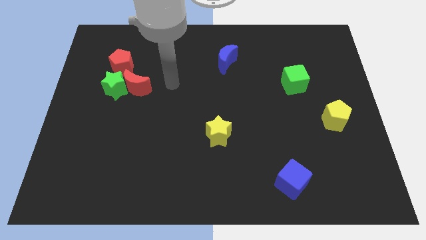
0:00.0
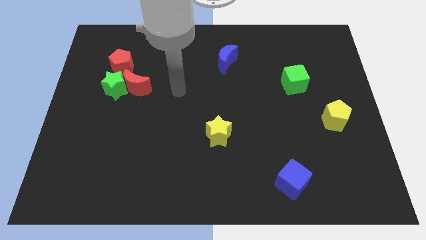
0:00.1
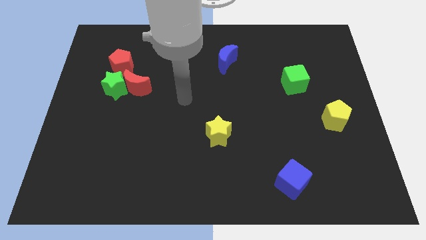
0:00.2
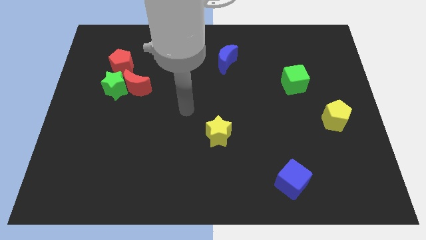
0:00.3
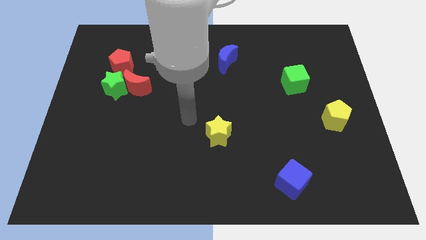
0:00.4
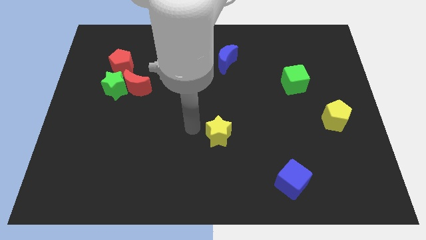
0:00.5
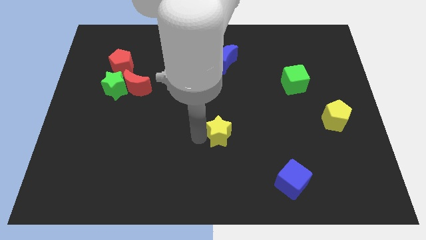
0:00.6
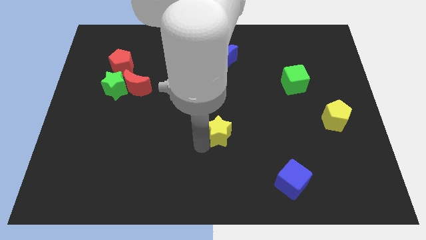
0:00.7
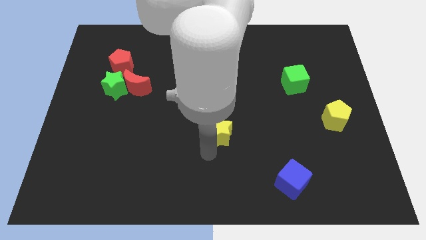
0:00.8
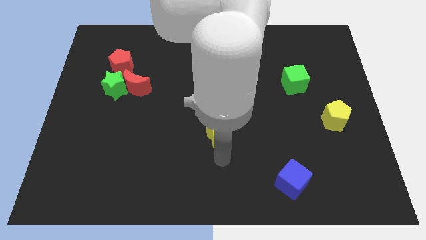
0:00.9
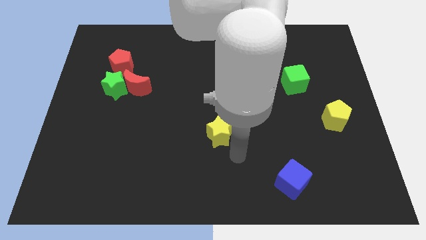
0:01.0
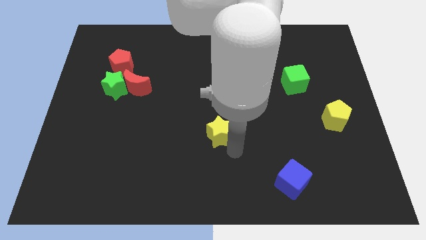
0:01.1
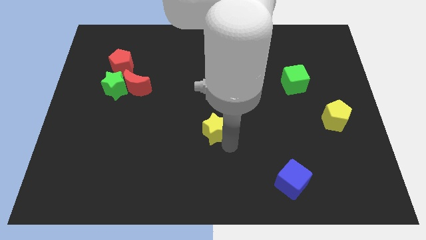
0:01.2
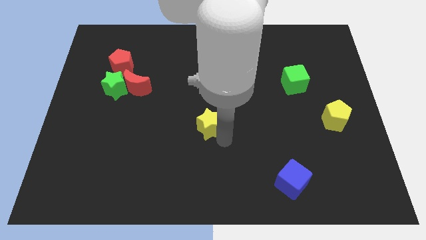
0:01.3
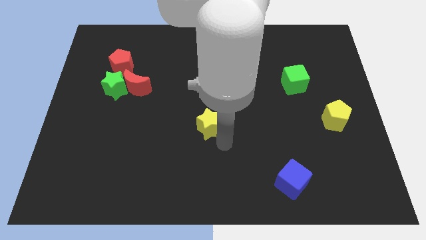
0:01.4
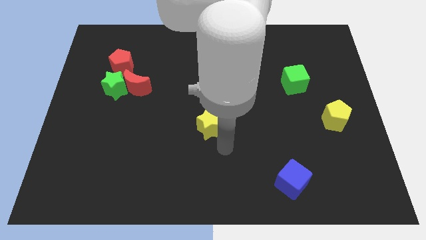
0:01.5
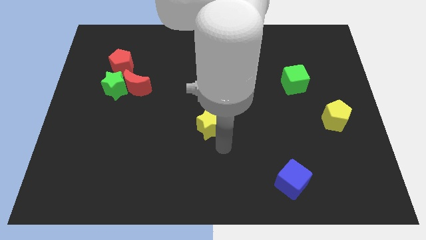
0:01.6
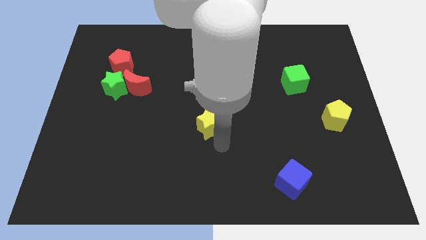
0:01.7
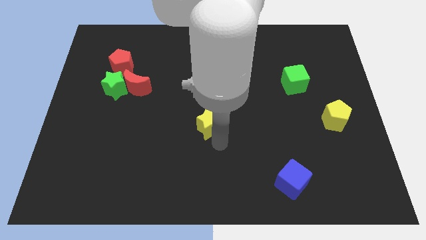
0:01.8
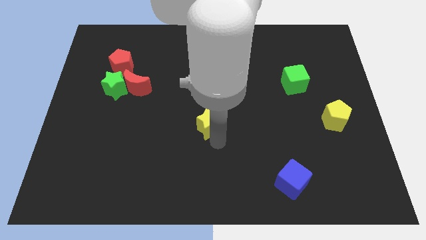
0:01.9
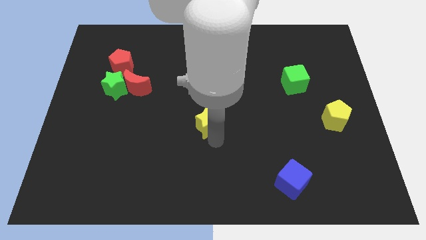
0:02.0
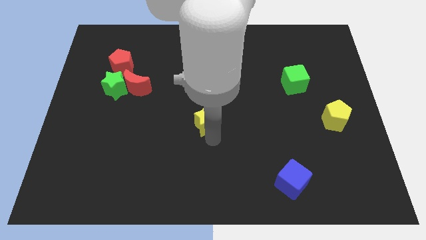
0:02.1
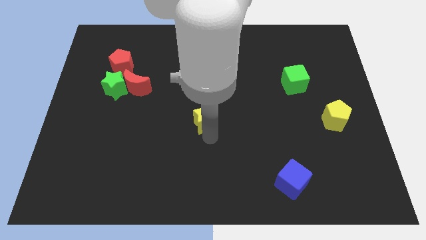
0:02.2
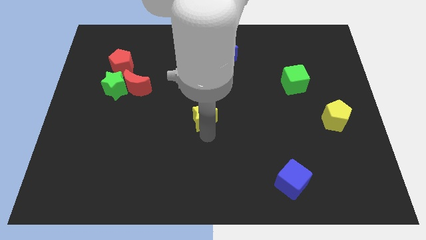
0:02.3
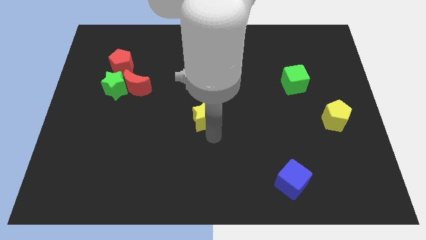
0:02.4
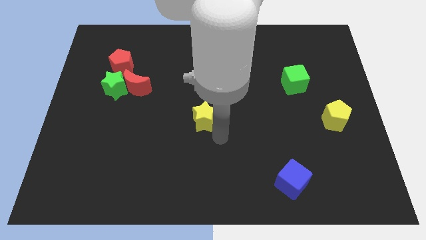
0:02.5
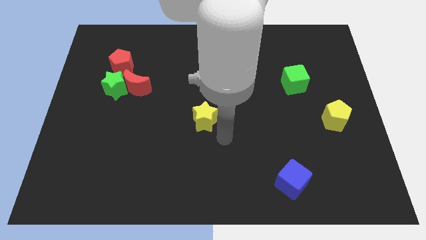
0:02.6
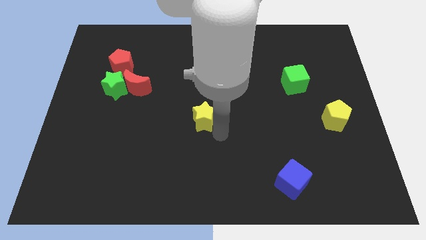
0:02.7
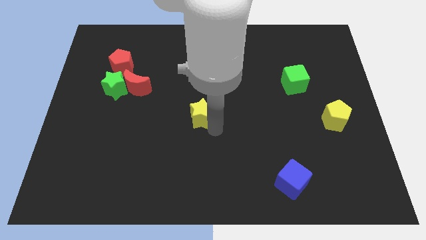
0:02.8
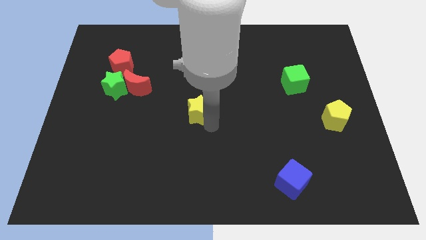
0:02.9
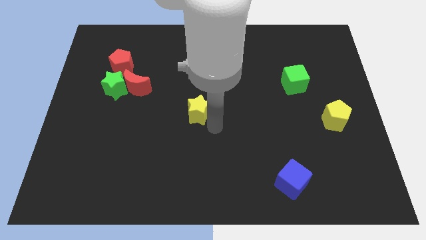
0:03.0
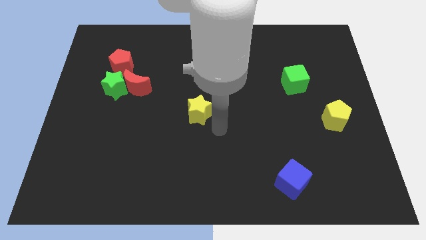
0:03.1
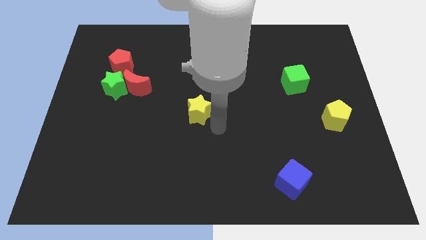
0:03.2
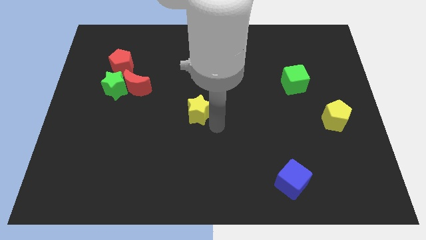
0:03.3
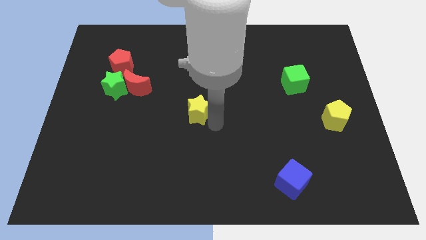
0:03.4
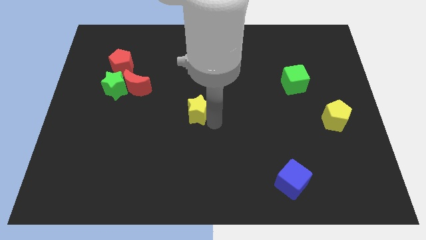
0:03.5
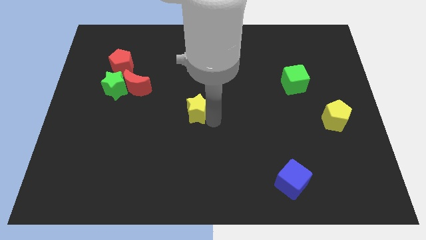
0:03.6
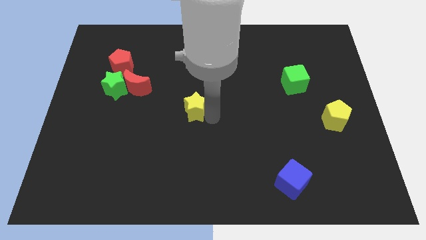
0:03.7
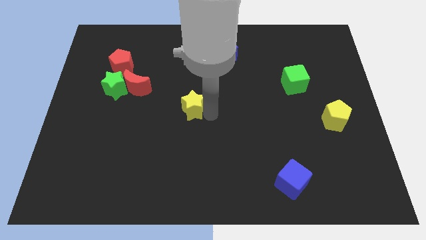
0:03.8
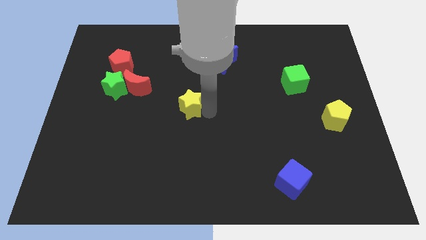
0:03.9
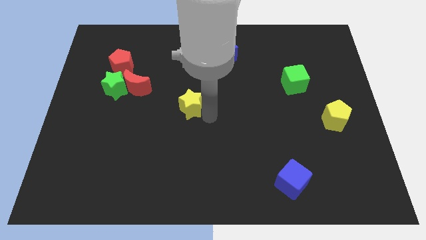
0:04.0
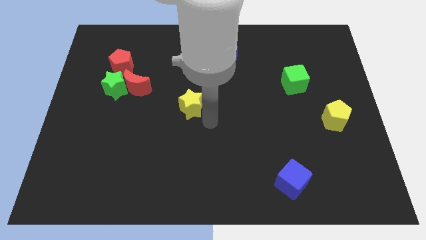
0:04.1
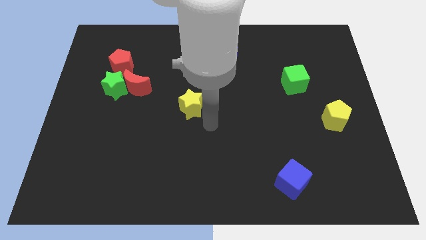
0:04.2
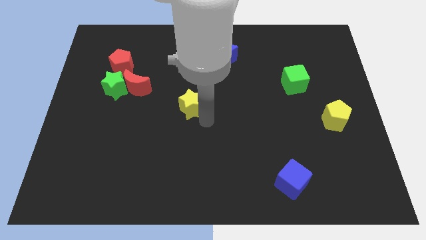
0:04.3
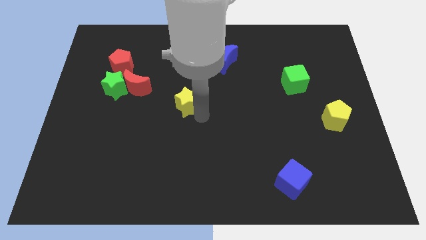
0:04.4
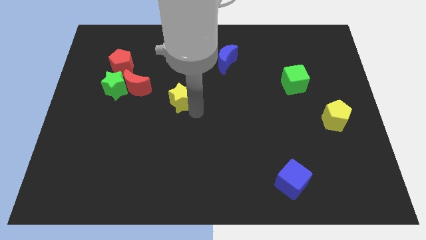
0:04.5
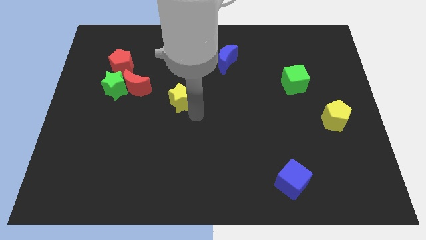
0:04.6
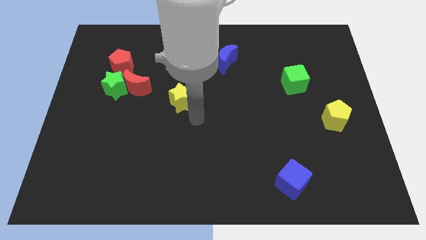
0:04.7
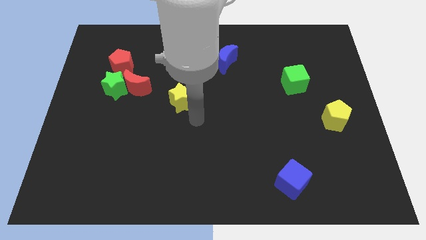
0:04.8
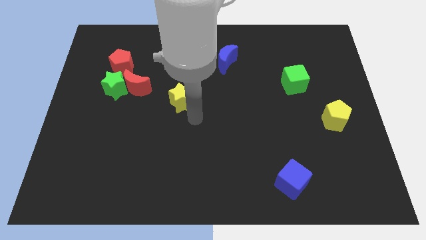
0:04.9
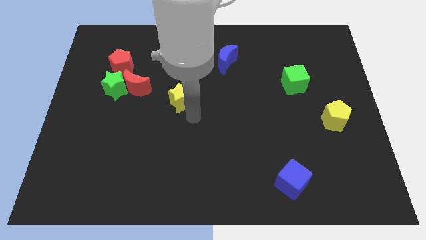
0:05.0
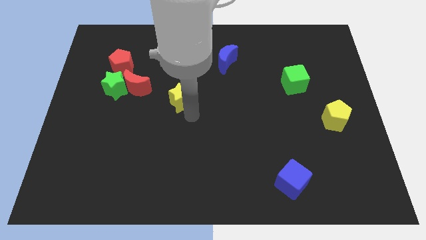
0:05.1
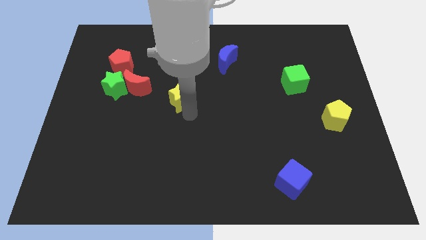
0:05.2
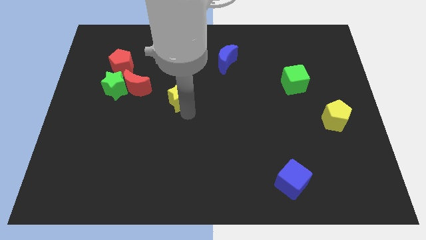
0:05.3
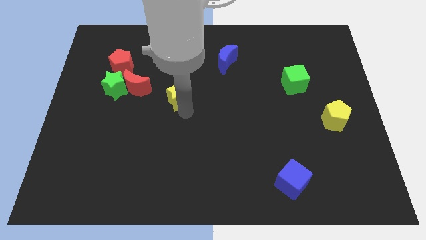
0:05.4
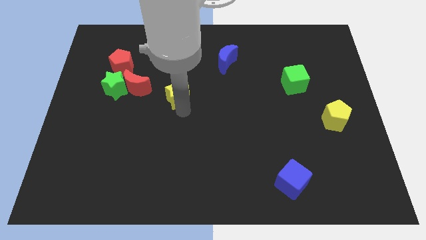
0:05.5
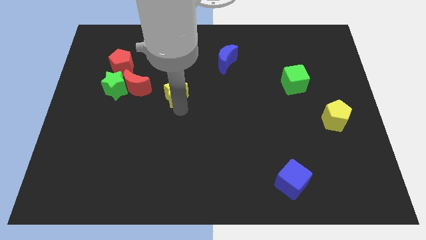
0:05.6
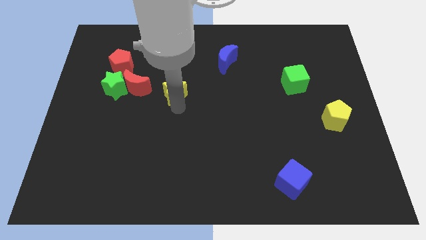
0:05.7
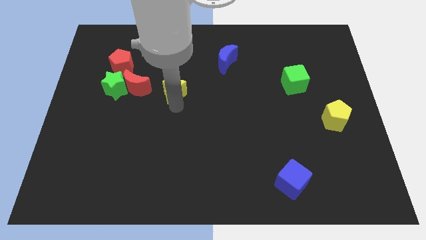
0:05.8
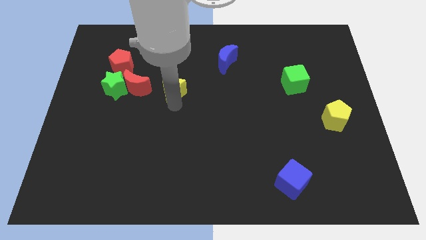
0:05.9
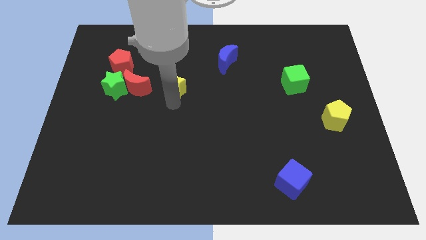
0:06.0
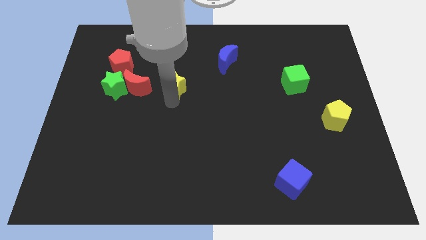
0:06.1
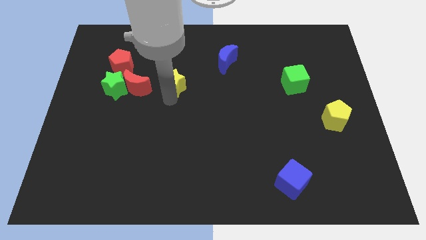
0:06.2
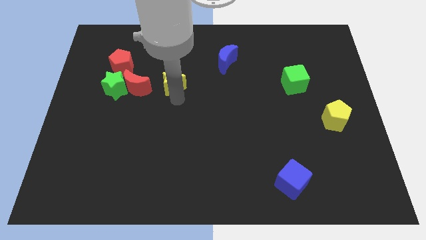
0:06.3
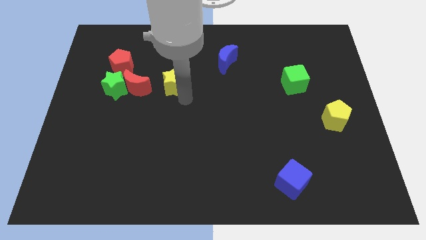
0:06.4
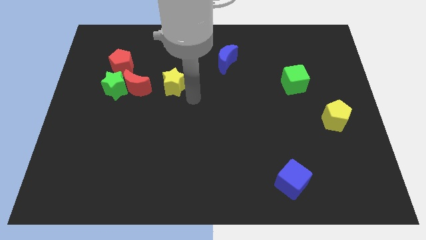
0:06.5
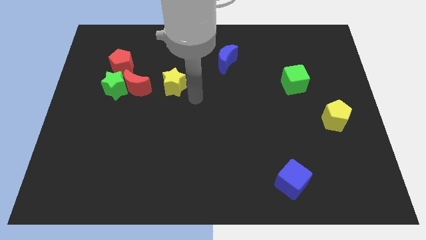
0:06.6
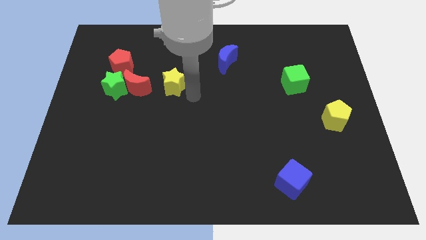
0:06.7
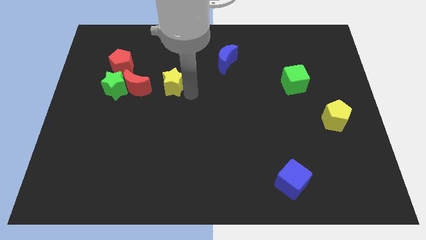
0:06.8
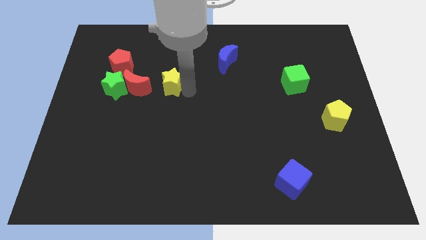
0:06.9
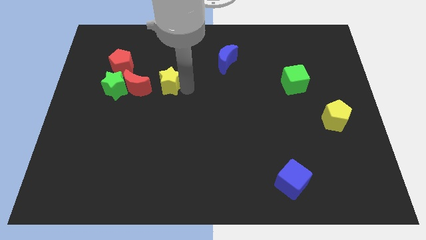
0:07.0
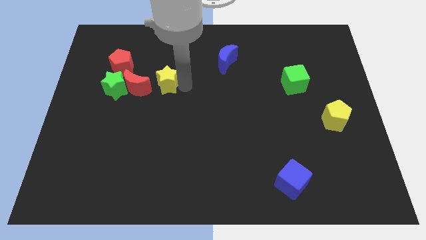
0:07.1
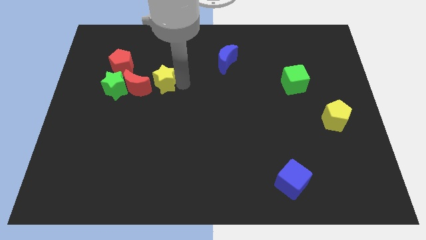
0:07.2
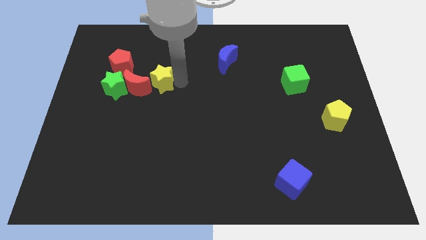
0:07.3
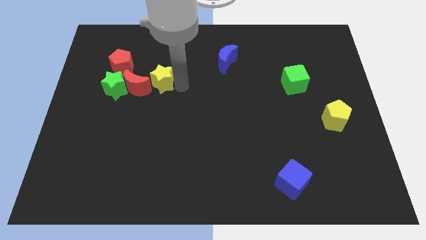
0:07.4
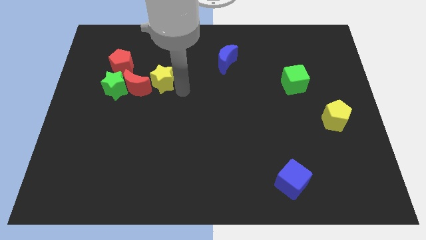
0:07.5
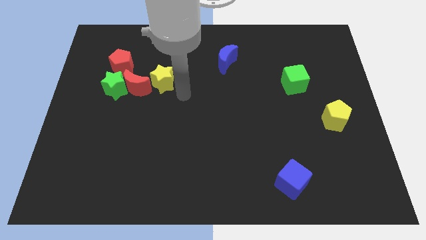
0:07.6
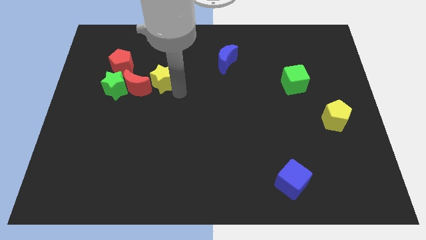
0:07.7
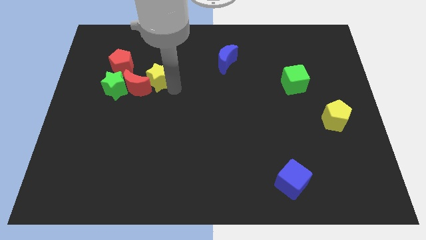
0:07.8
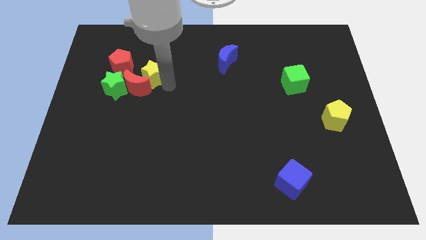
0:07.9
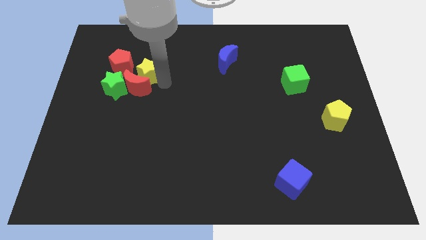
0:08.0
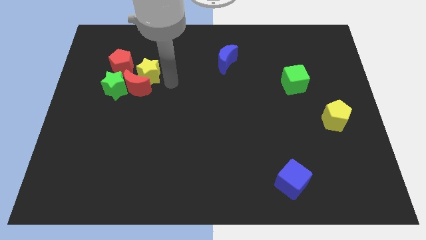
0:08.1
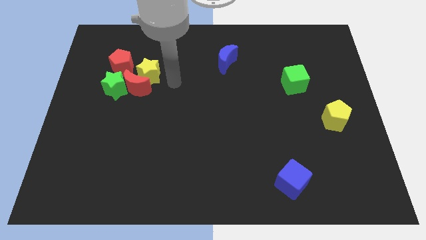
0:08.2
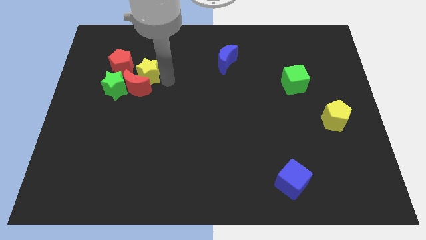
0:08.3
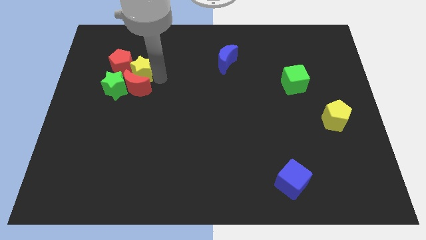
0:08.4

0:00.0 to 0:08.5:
push the yellow star towards the red pentagon
